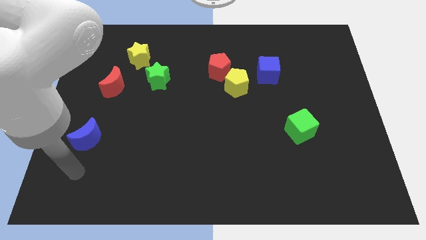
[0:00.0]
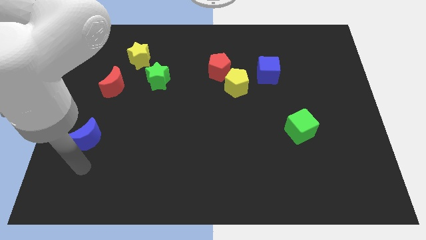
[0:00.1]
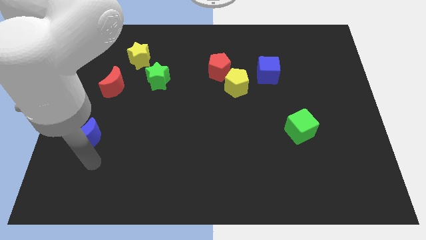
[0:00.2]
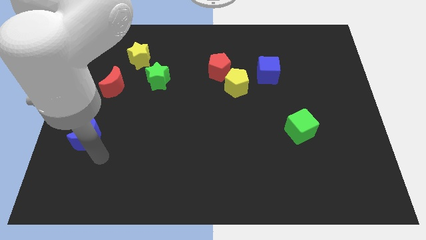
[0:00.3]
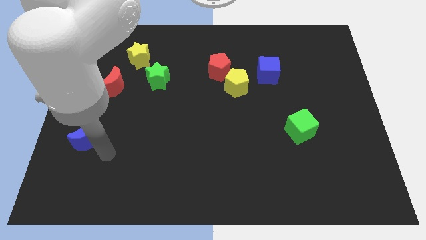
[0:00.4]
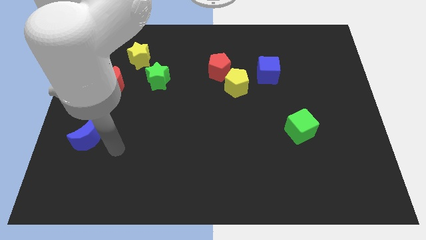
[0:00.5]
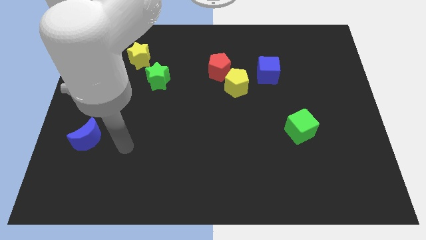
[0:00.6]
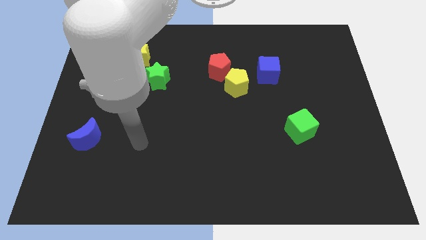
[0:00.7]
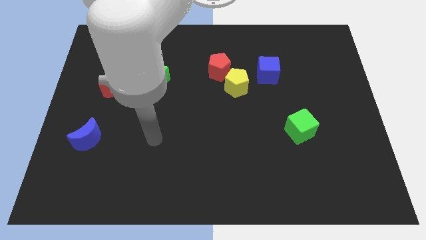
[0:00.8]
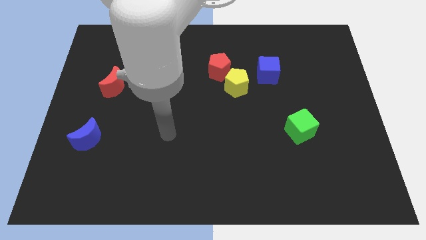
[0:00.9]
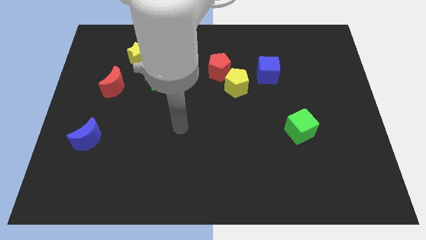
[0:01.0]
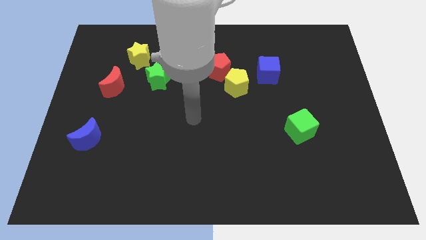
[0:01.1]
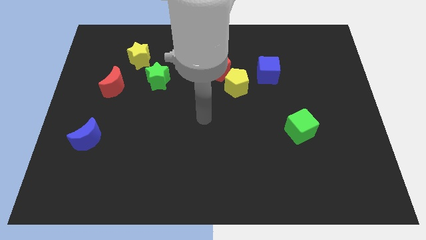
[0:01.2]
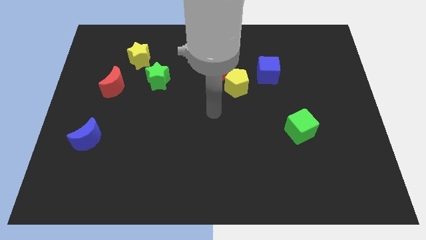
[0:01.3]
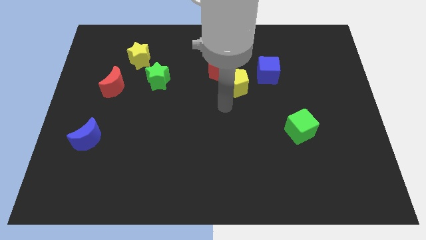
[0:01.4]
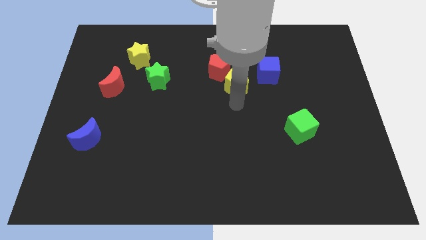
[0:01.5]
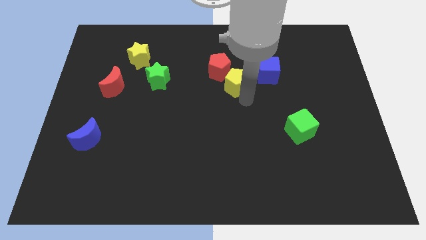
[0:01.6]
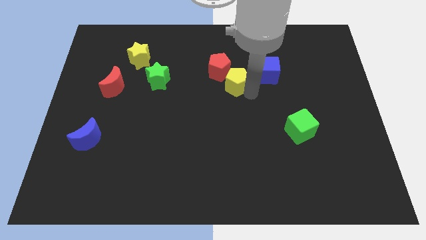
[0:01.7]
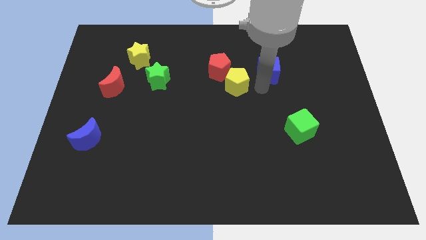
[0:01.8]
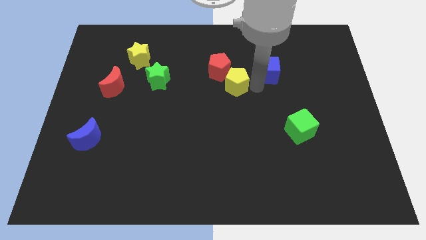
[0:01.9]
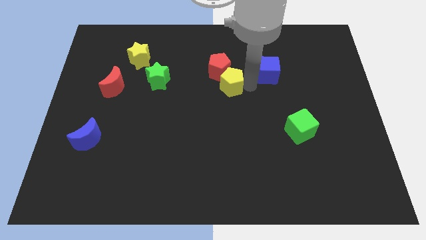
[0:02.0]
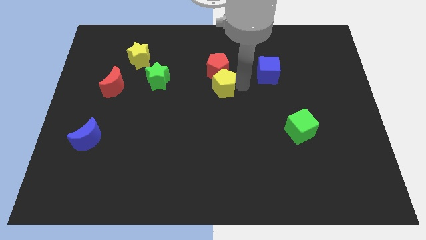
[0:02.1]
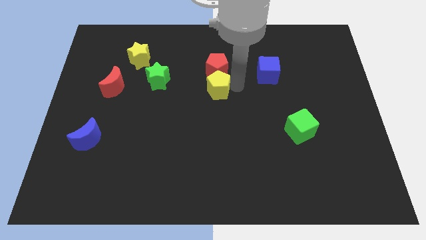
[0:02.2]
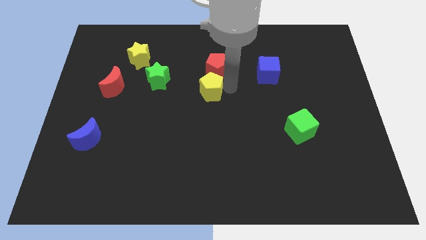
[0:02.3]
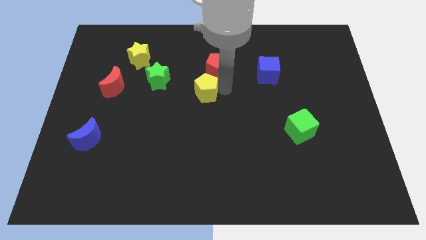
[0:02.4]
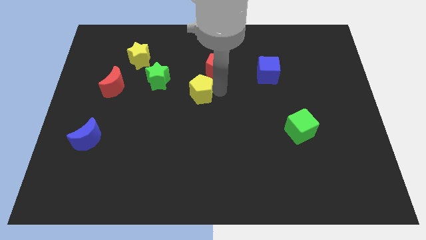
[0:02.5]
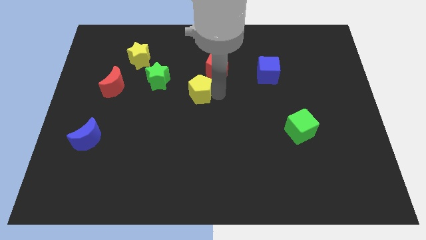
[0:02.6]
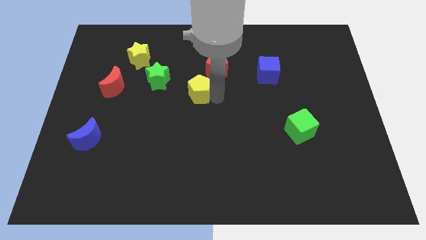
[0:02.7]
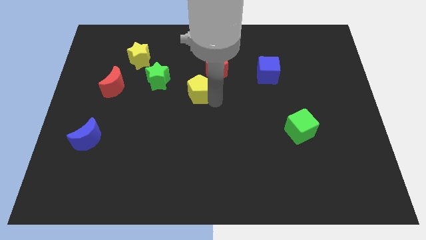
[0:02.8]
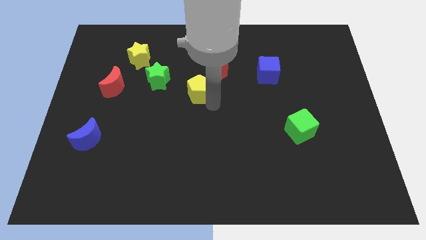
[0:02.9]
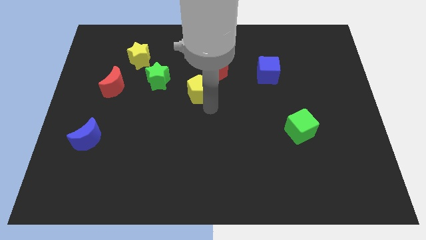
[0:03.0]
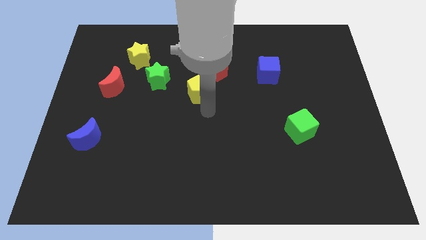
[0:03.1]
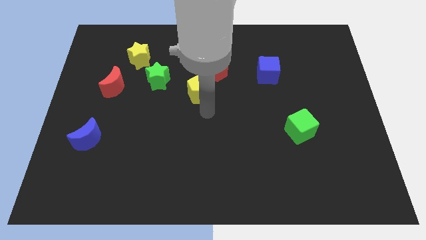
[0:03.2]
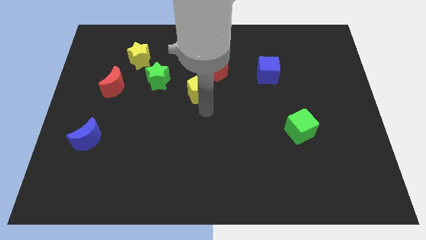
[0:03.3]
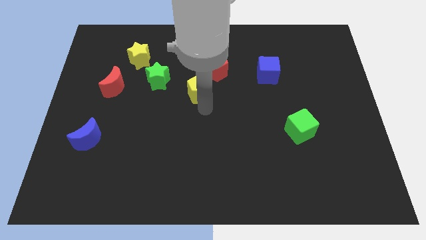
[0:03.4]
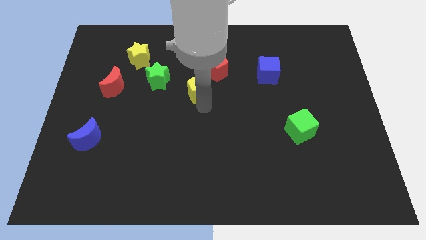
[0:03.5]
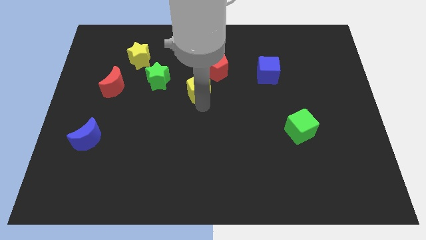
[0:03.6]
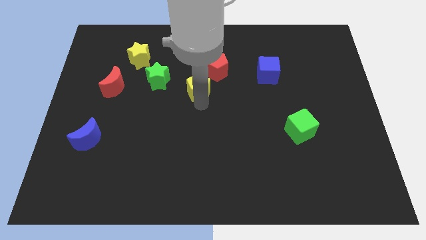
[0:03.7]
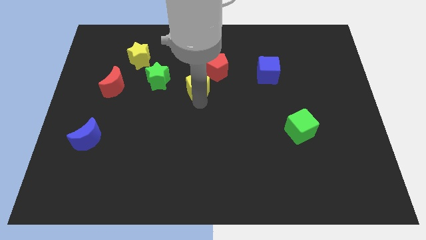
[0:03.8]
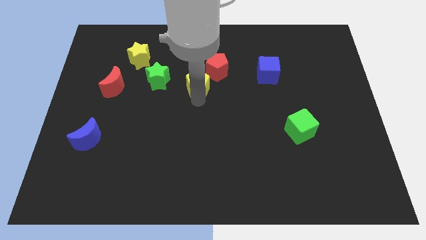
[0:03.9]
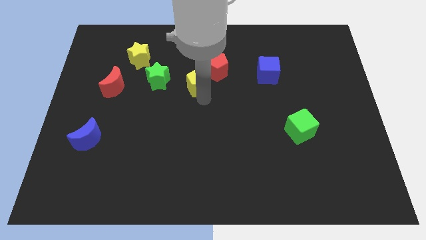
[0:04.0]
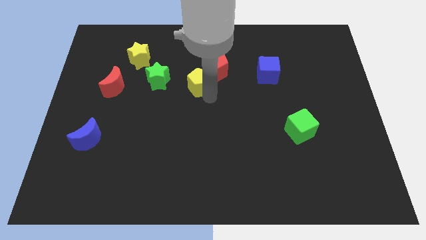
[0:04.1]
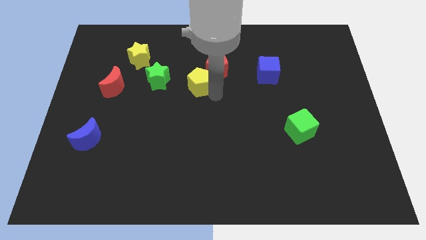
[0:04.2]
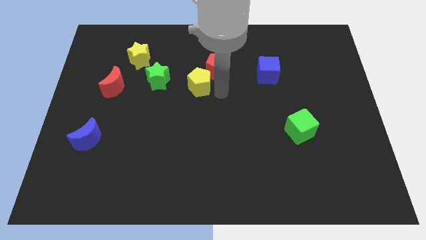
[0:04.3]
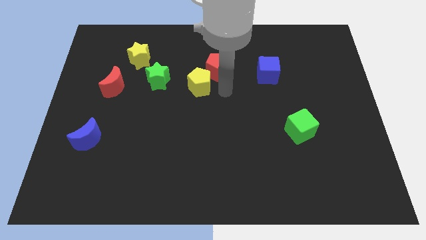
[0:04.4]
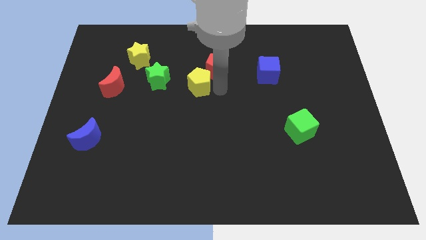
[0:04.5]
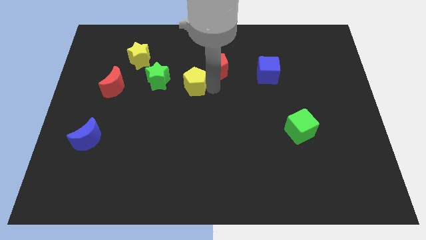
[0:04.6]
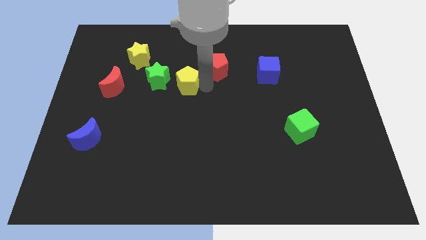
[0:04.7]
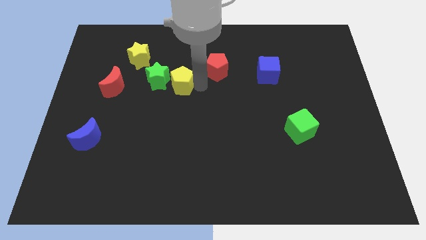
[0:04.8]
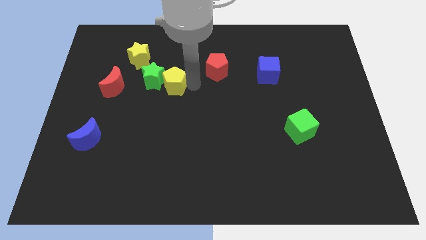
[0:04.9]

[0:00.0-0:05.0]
push the yellow pentagon close to the green star

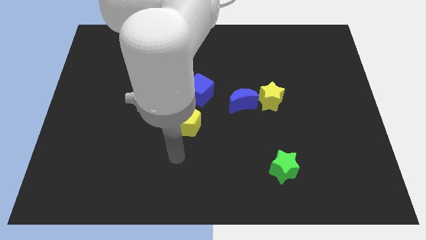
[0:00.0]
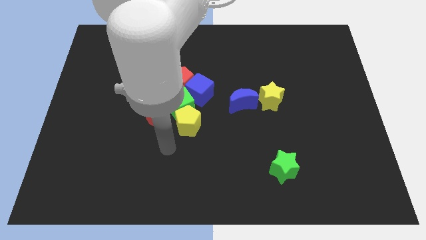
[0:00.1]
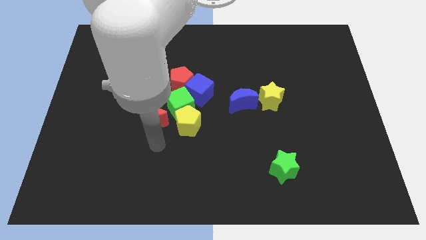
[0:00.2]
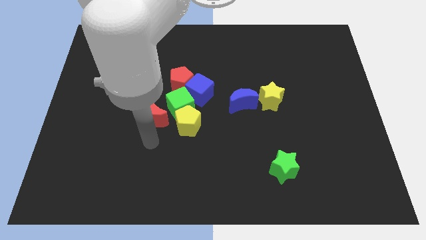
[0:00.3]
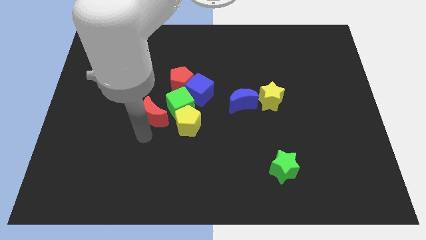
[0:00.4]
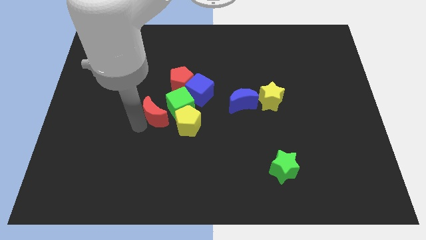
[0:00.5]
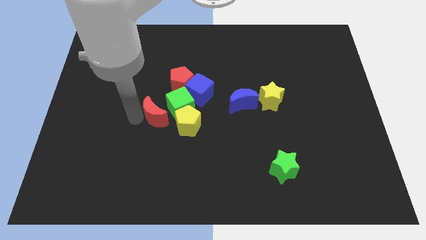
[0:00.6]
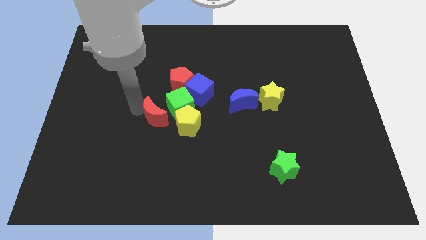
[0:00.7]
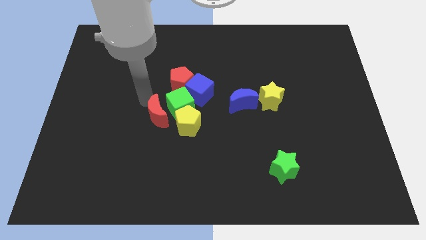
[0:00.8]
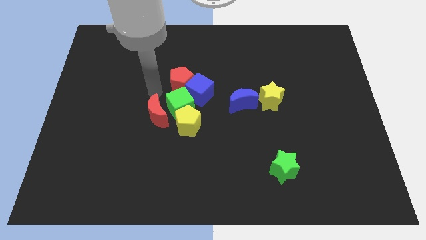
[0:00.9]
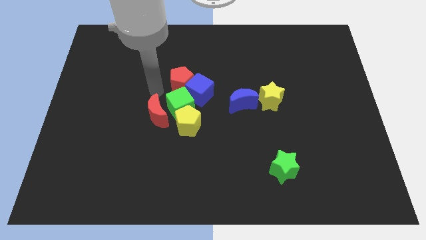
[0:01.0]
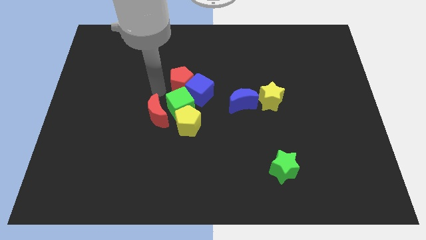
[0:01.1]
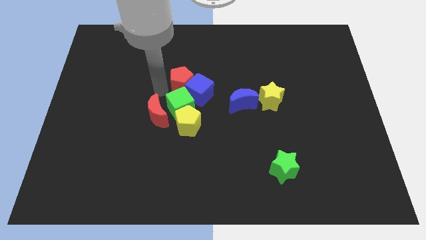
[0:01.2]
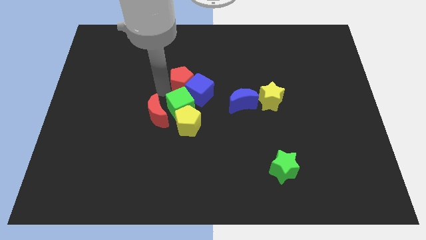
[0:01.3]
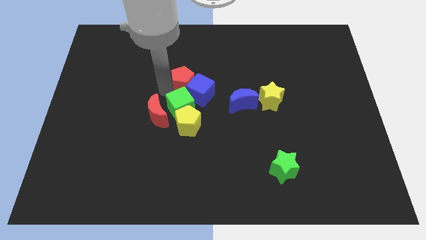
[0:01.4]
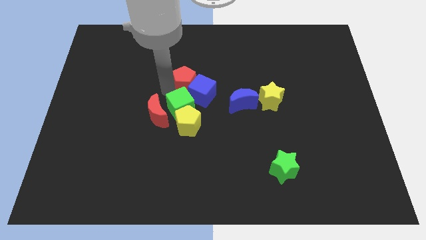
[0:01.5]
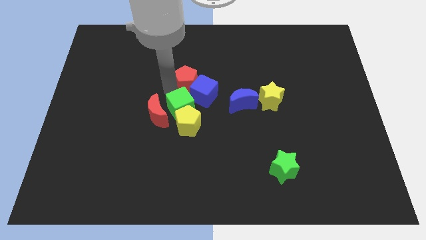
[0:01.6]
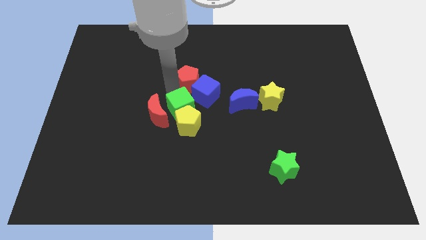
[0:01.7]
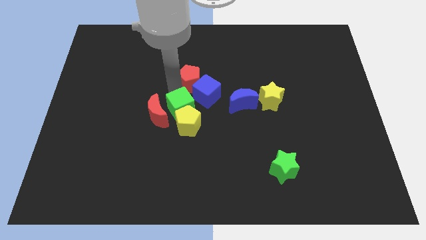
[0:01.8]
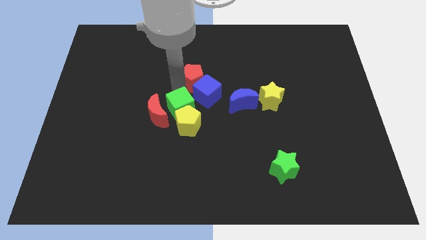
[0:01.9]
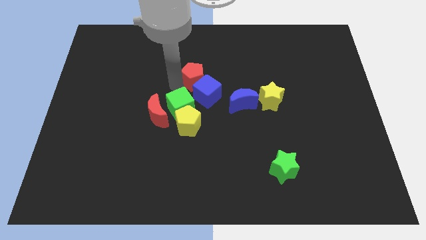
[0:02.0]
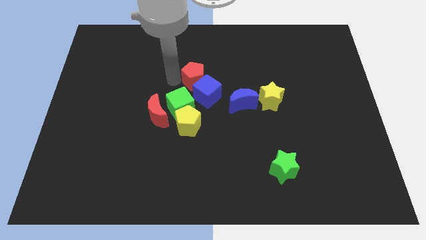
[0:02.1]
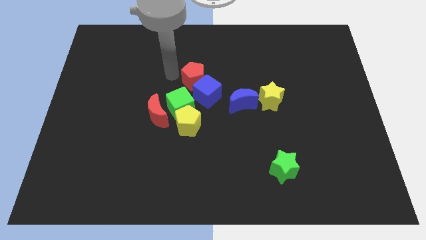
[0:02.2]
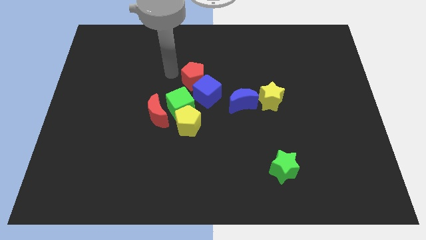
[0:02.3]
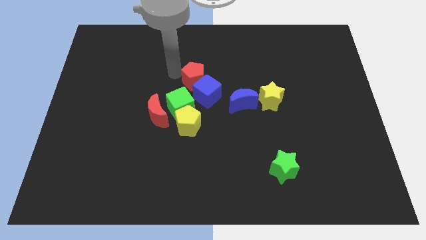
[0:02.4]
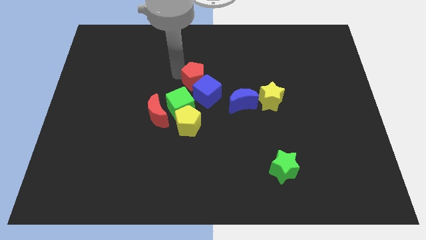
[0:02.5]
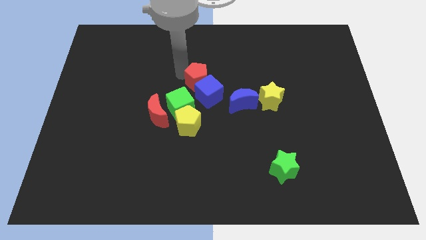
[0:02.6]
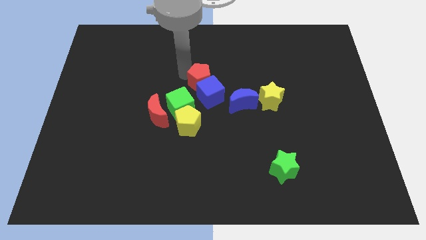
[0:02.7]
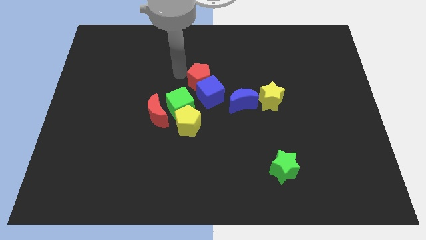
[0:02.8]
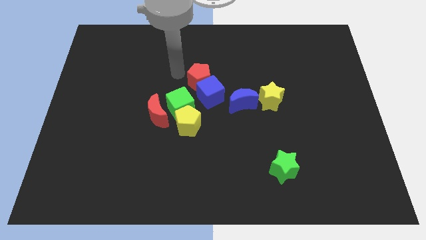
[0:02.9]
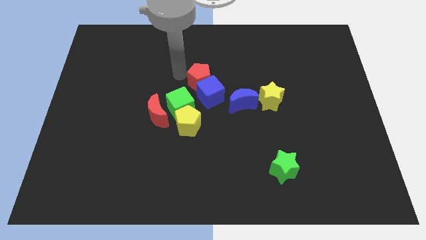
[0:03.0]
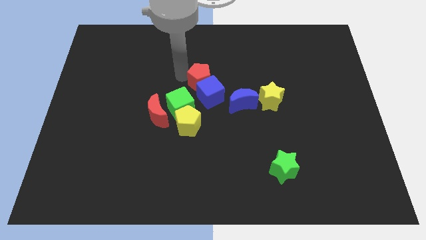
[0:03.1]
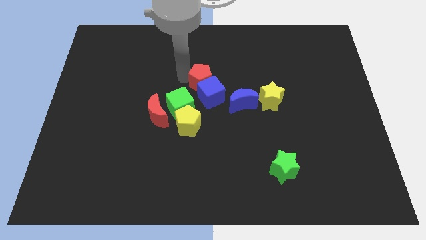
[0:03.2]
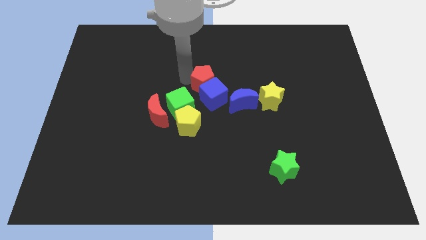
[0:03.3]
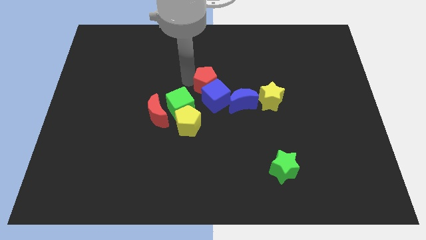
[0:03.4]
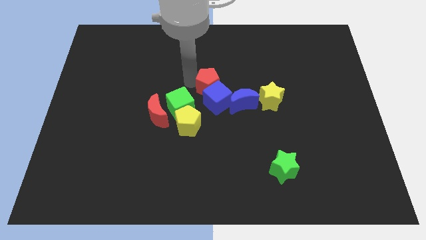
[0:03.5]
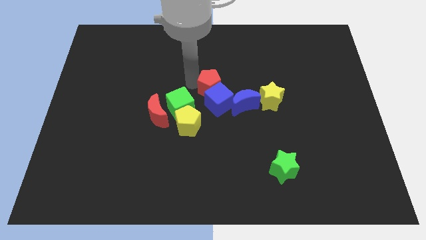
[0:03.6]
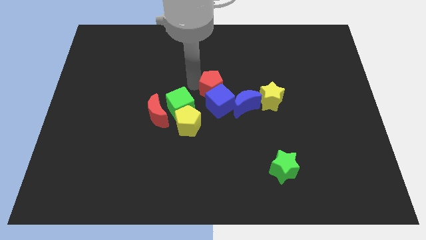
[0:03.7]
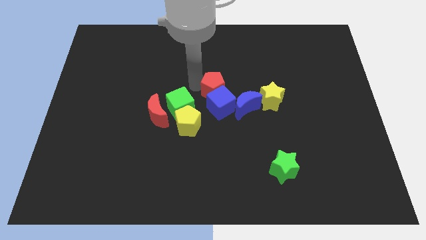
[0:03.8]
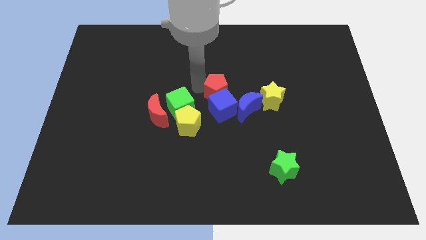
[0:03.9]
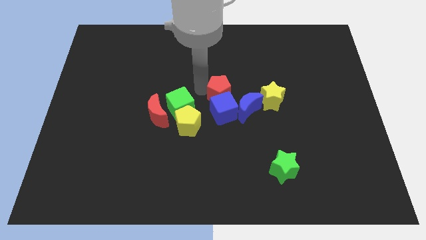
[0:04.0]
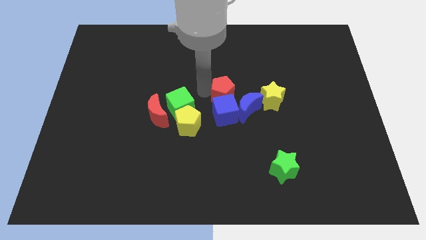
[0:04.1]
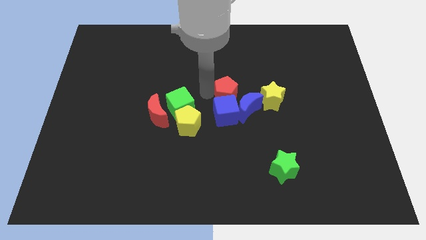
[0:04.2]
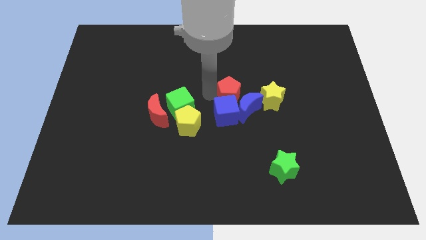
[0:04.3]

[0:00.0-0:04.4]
push the red pentagon close to the blue moon
